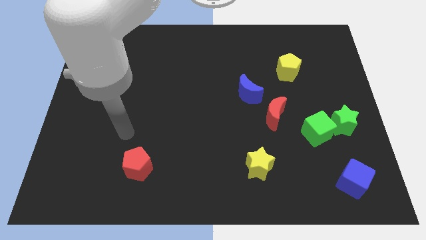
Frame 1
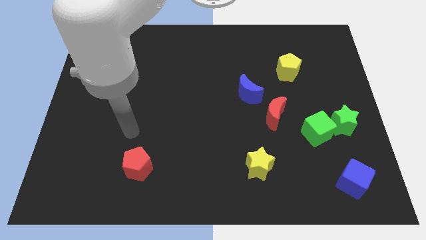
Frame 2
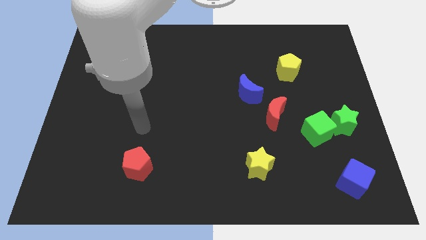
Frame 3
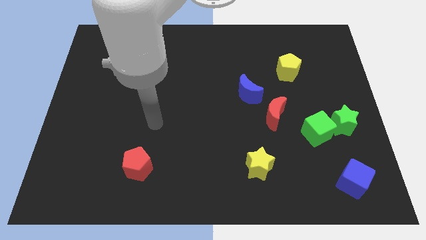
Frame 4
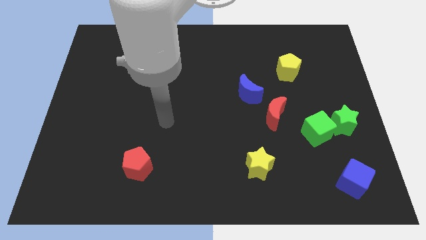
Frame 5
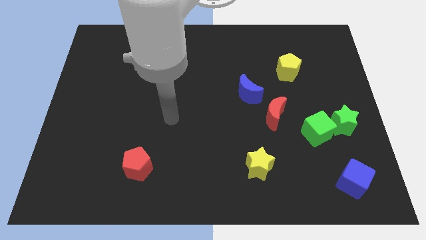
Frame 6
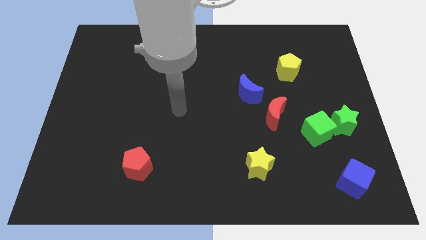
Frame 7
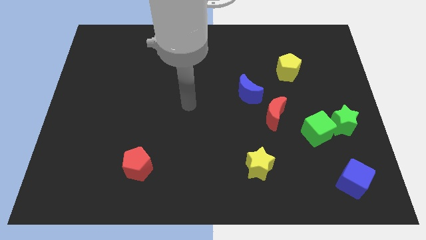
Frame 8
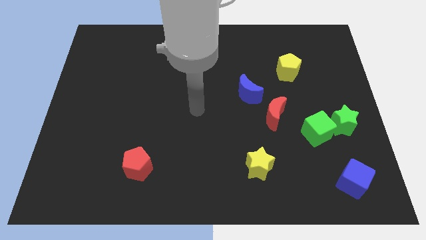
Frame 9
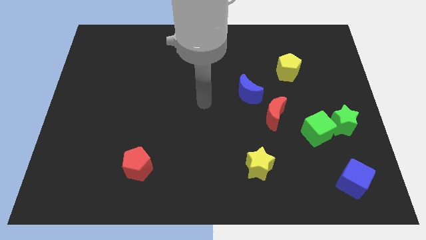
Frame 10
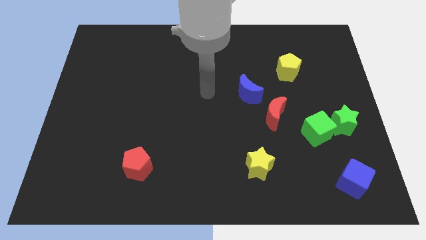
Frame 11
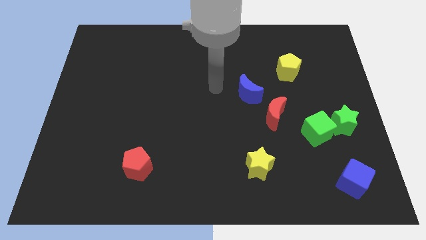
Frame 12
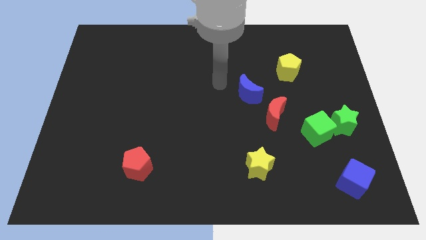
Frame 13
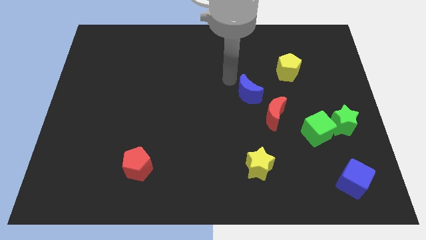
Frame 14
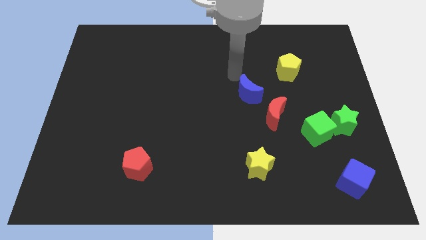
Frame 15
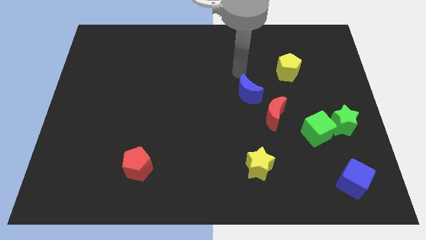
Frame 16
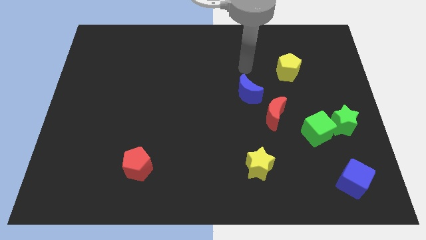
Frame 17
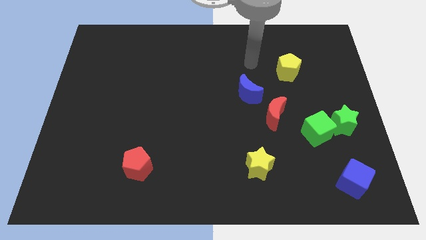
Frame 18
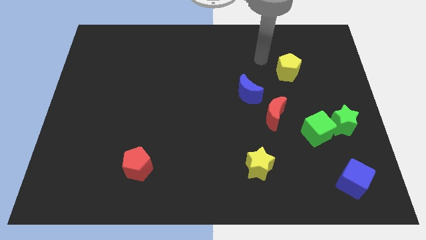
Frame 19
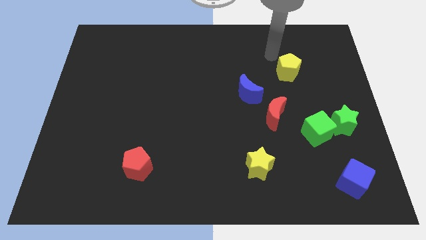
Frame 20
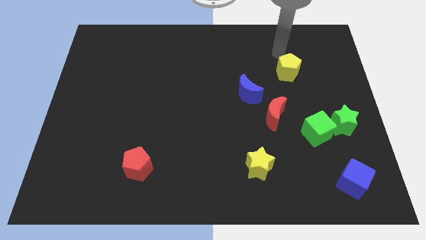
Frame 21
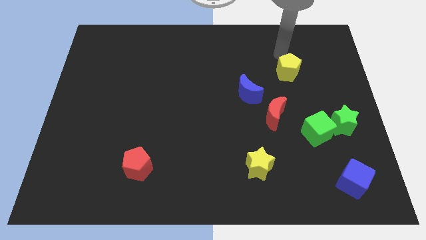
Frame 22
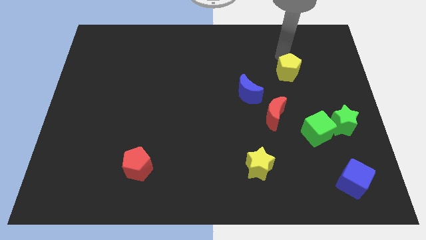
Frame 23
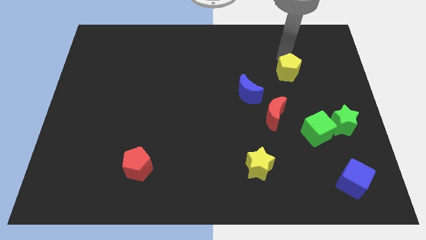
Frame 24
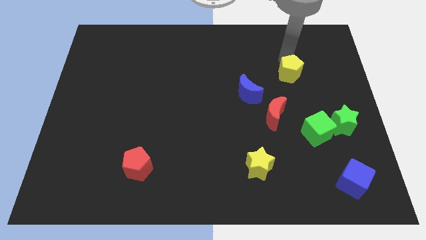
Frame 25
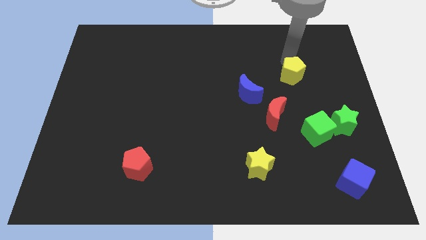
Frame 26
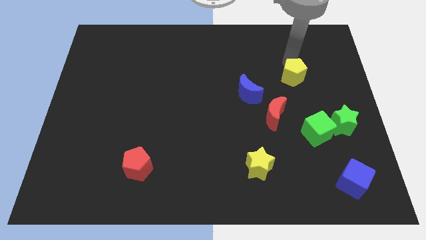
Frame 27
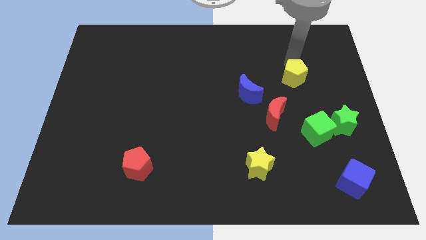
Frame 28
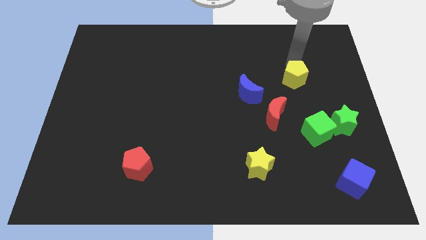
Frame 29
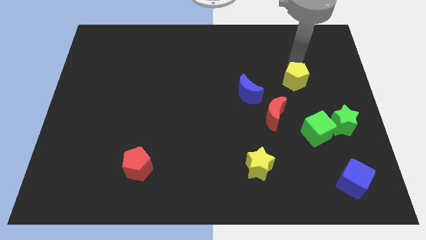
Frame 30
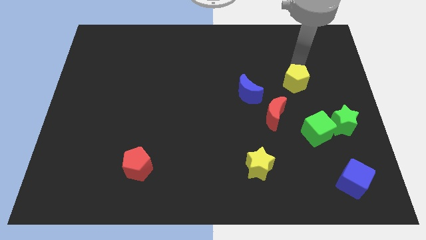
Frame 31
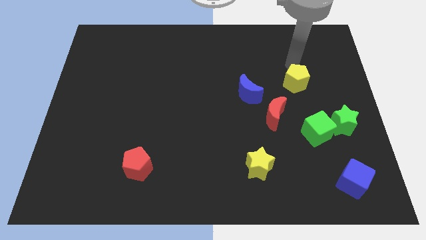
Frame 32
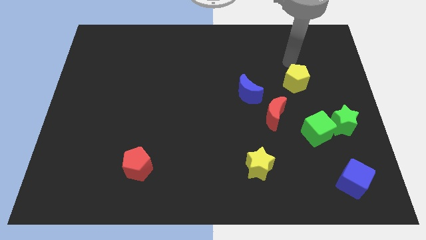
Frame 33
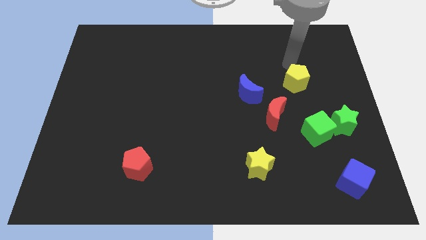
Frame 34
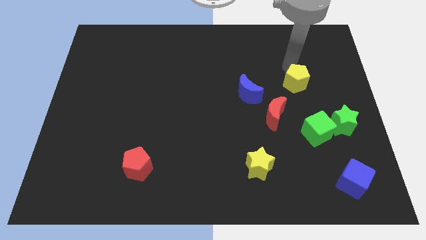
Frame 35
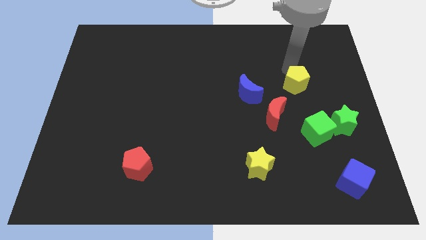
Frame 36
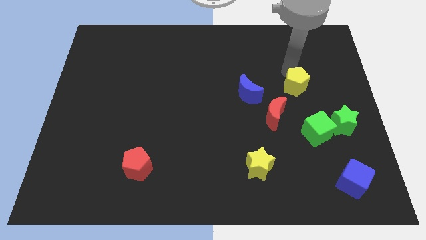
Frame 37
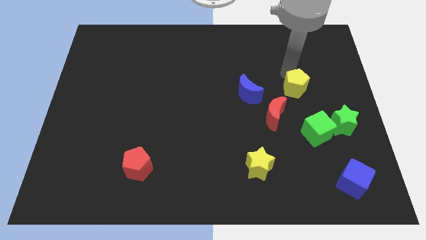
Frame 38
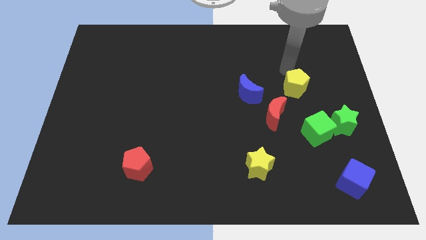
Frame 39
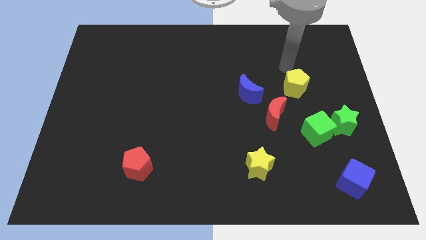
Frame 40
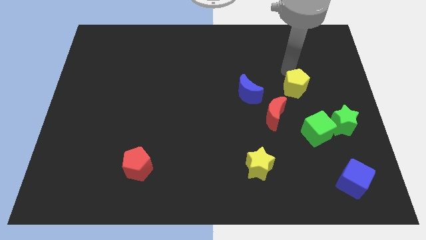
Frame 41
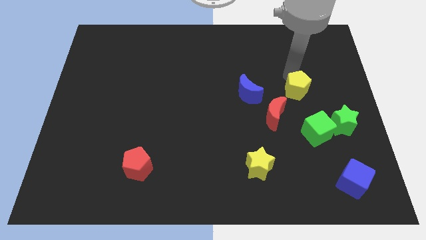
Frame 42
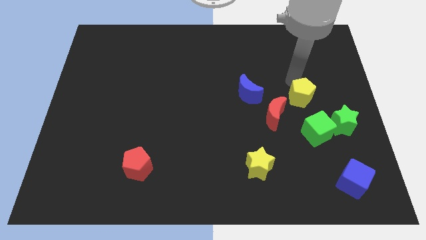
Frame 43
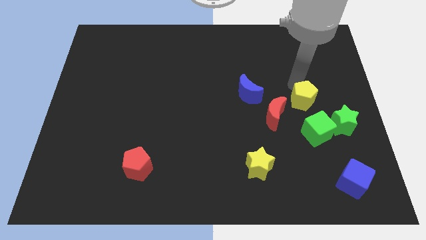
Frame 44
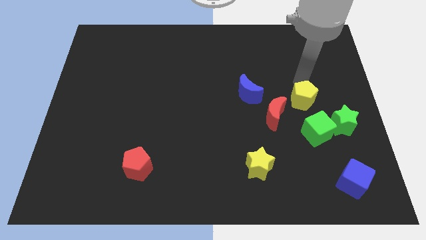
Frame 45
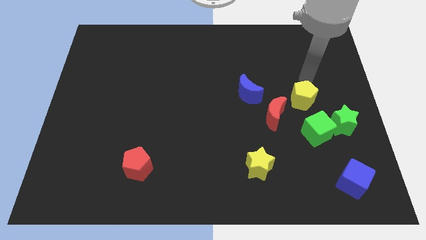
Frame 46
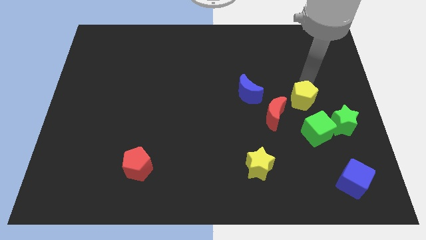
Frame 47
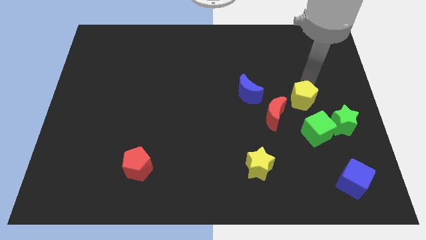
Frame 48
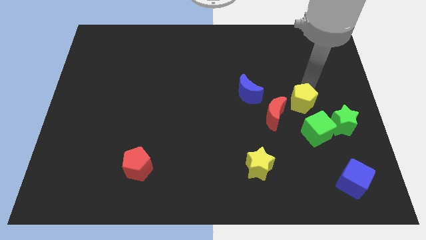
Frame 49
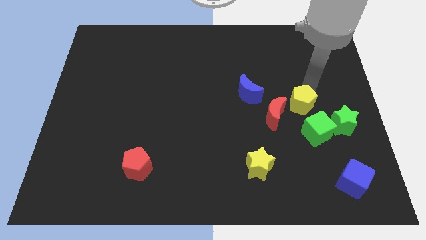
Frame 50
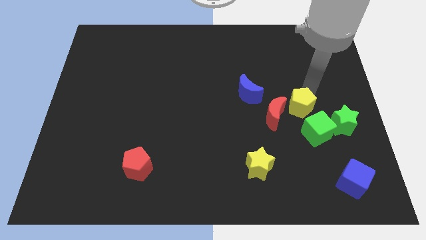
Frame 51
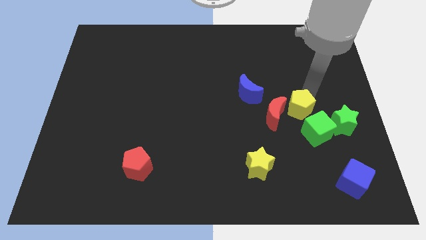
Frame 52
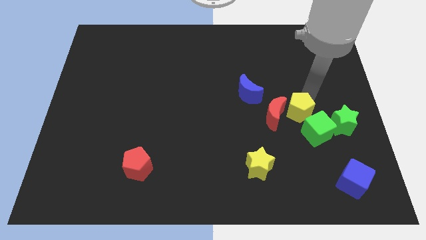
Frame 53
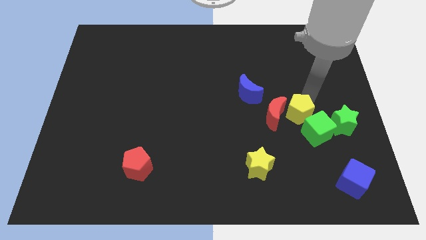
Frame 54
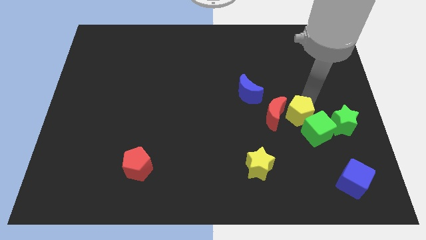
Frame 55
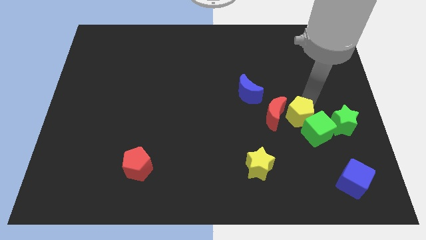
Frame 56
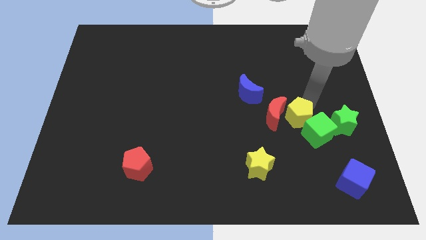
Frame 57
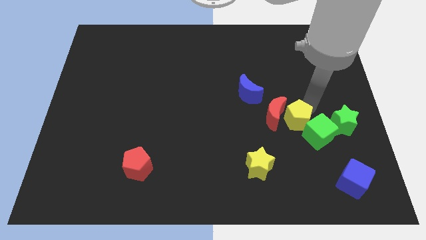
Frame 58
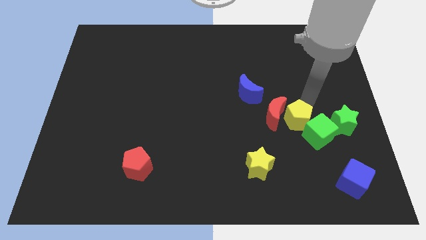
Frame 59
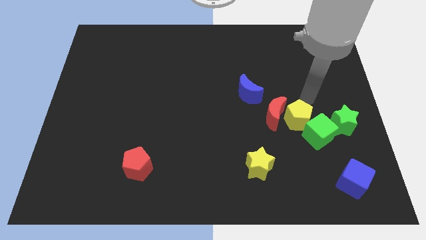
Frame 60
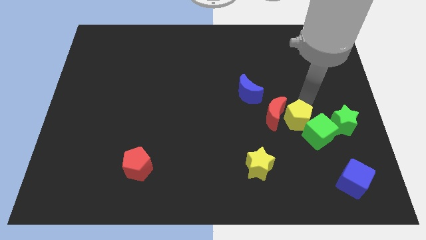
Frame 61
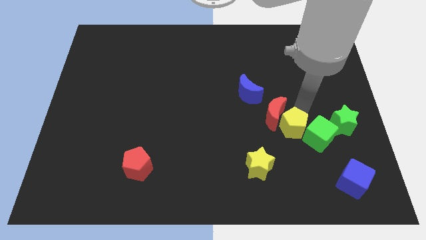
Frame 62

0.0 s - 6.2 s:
put the yellow pentagon to the bottom side of the red moon
